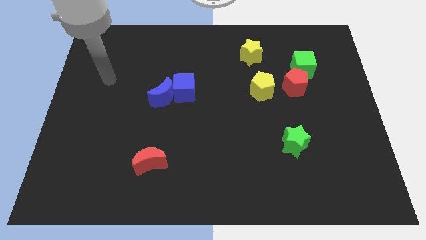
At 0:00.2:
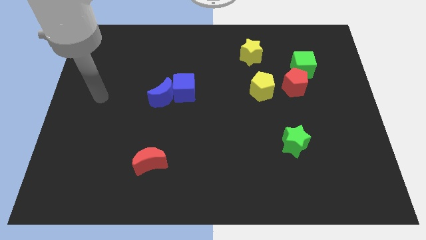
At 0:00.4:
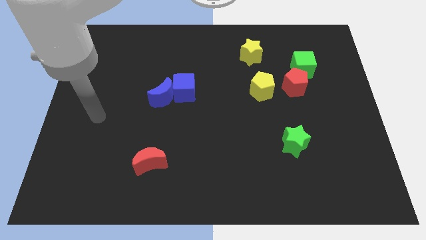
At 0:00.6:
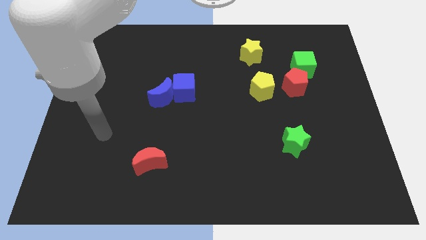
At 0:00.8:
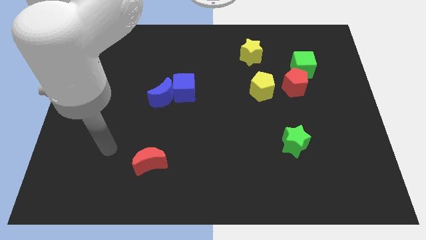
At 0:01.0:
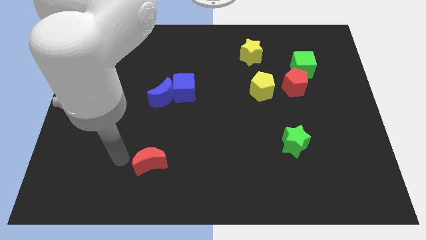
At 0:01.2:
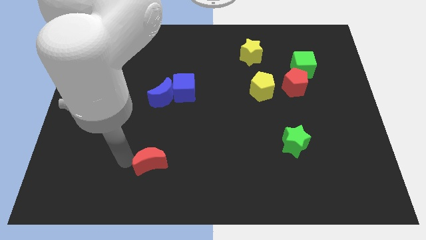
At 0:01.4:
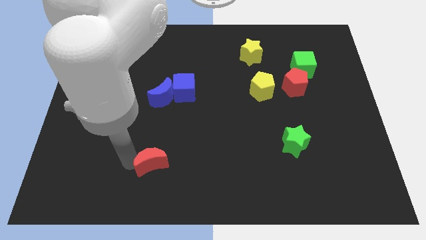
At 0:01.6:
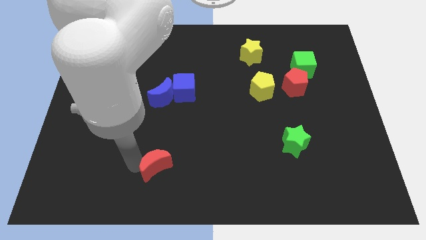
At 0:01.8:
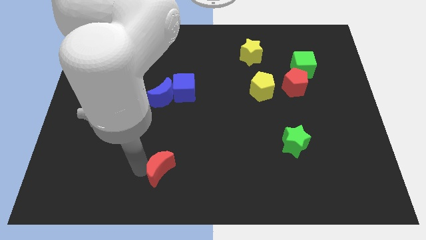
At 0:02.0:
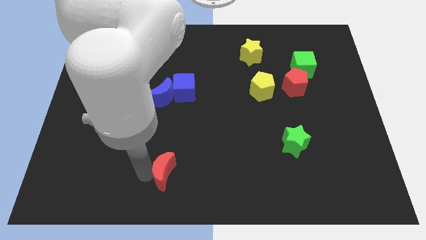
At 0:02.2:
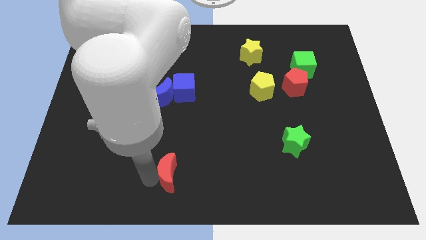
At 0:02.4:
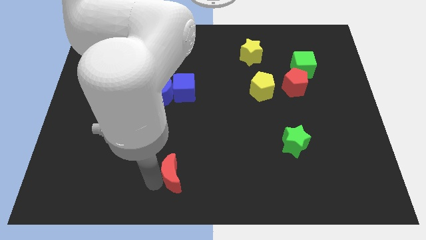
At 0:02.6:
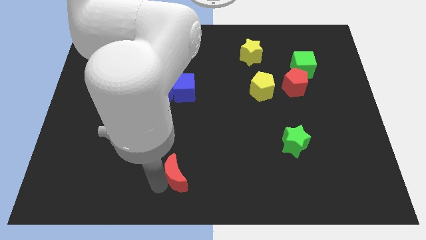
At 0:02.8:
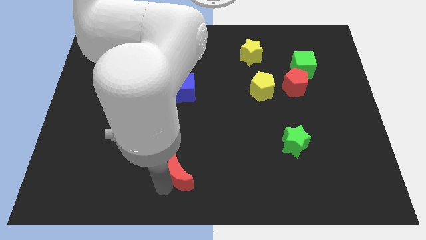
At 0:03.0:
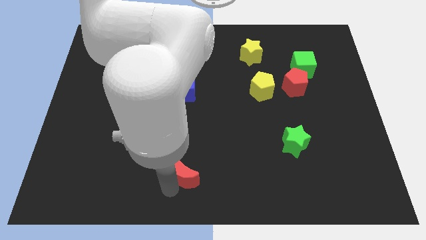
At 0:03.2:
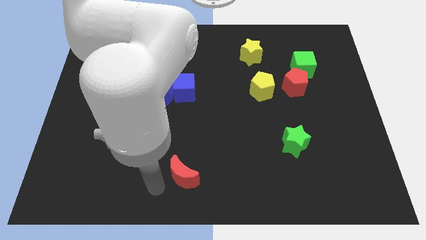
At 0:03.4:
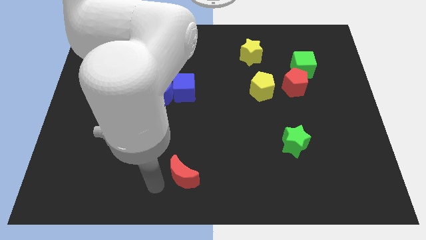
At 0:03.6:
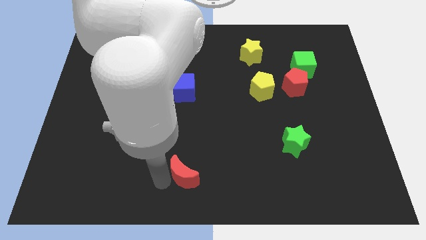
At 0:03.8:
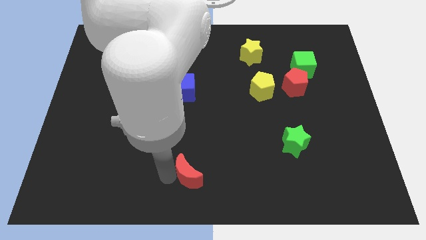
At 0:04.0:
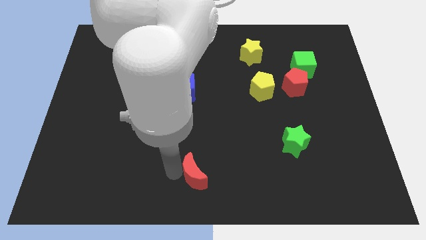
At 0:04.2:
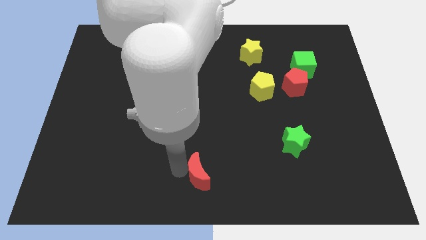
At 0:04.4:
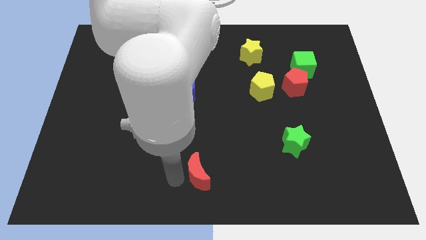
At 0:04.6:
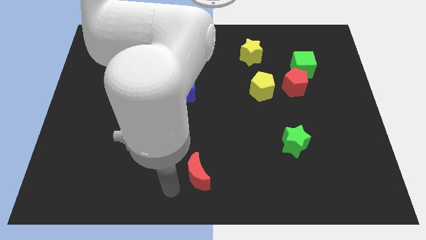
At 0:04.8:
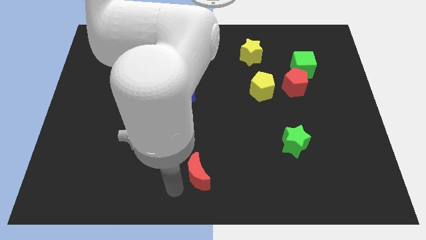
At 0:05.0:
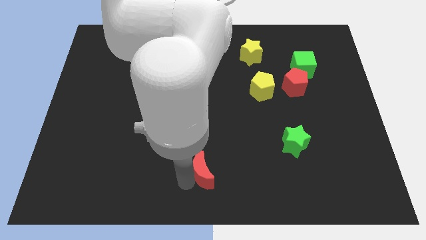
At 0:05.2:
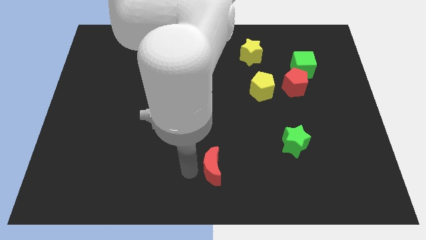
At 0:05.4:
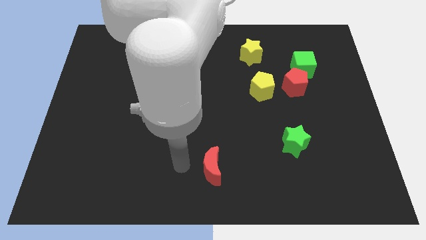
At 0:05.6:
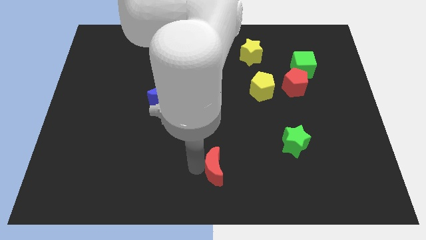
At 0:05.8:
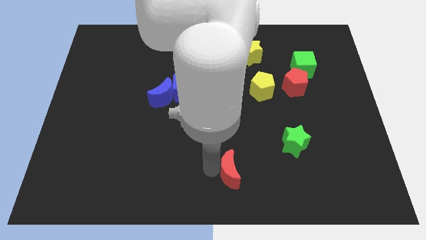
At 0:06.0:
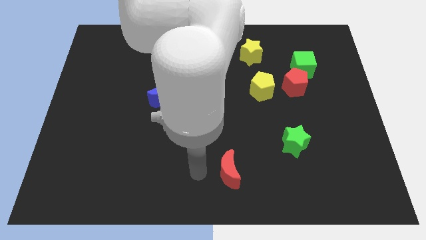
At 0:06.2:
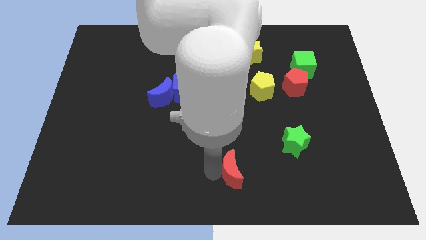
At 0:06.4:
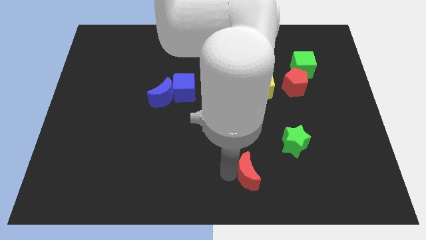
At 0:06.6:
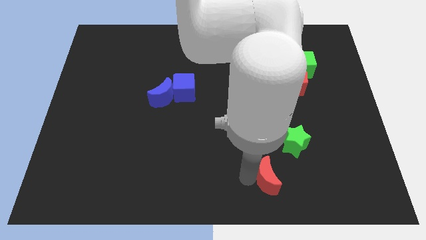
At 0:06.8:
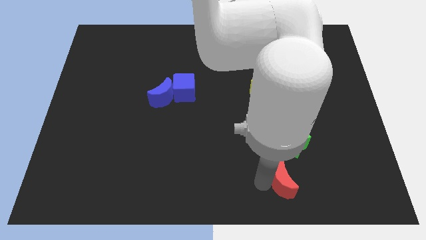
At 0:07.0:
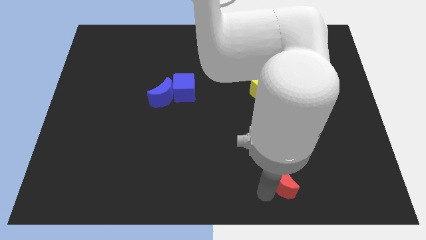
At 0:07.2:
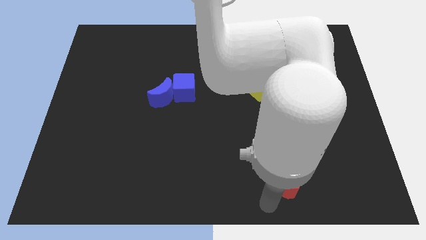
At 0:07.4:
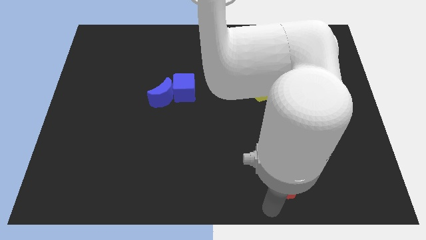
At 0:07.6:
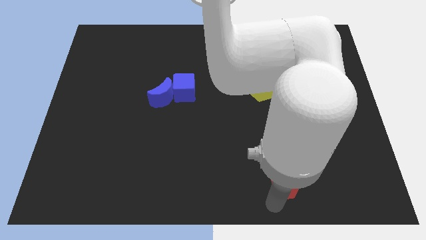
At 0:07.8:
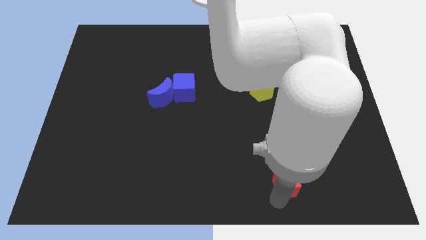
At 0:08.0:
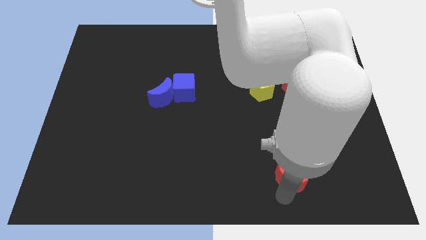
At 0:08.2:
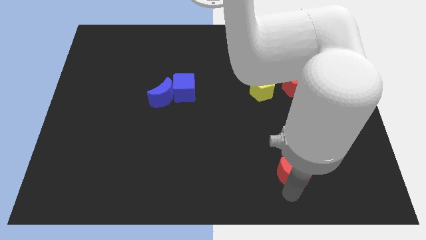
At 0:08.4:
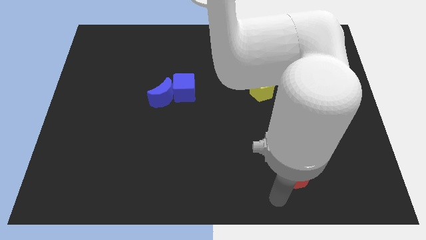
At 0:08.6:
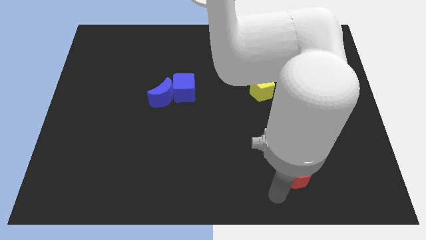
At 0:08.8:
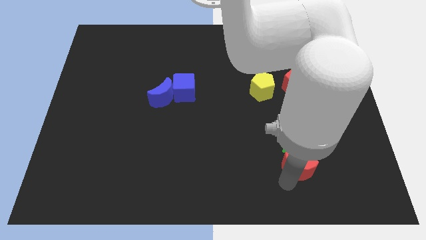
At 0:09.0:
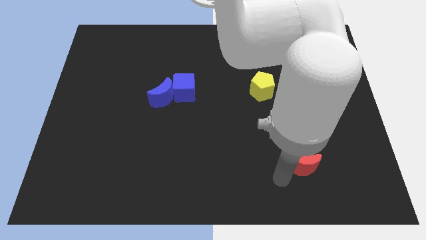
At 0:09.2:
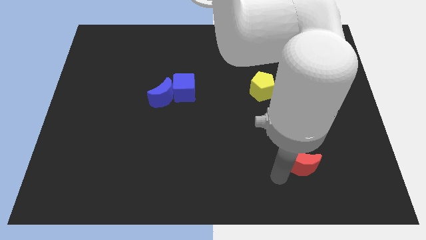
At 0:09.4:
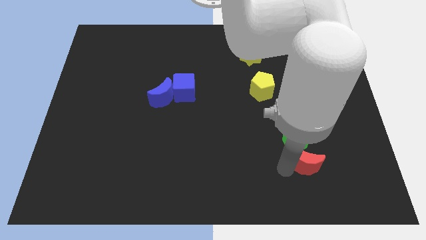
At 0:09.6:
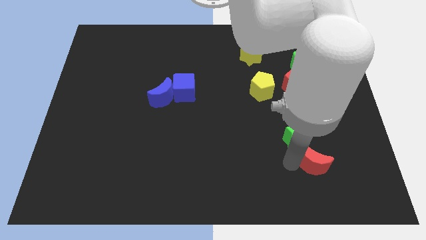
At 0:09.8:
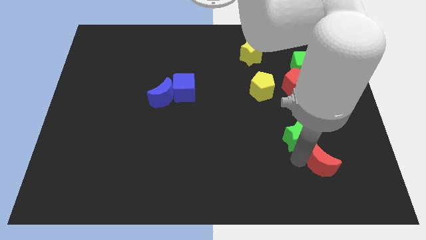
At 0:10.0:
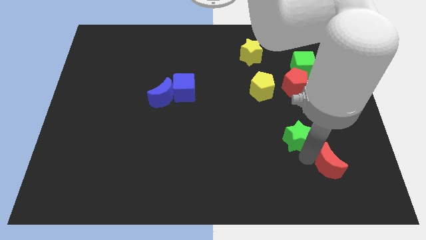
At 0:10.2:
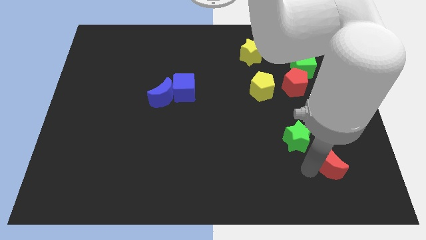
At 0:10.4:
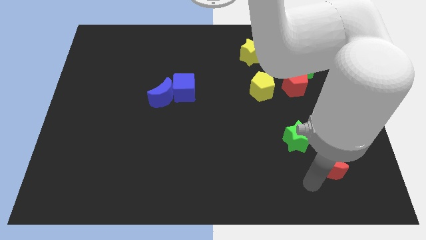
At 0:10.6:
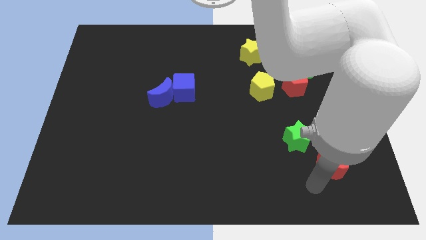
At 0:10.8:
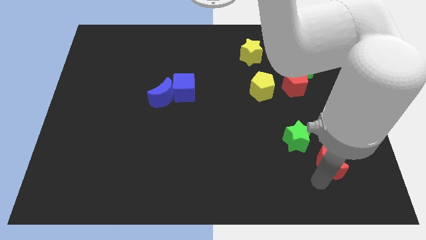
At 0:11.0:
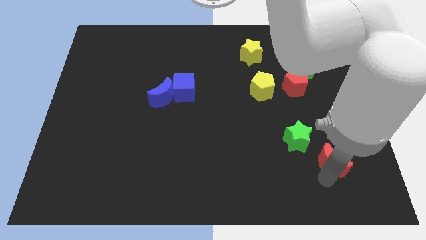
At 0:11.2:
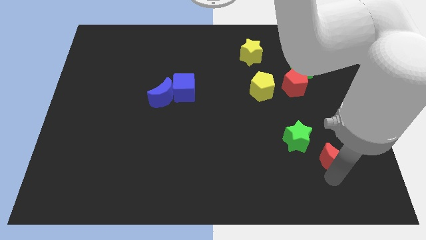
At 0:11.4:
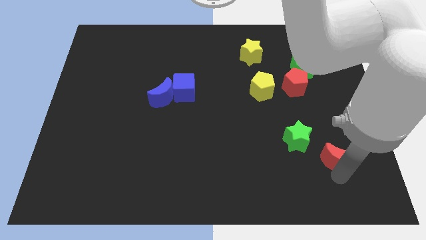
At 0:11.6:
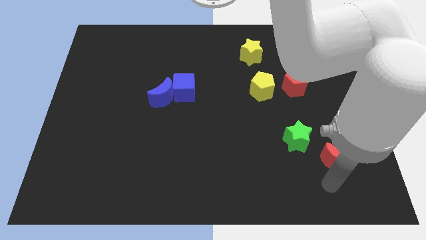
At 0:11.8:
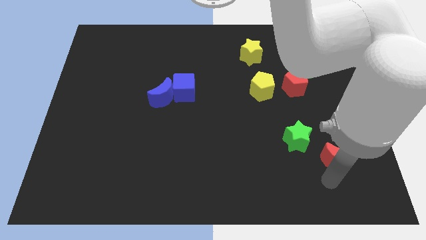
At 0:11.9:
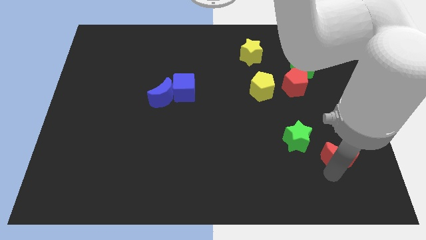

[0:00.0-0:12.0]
push the red moon just right of the green star

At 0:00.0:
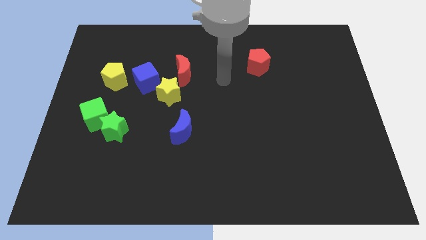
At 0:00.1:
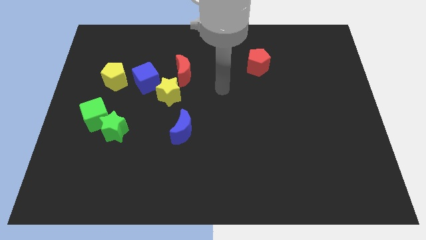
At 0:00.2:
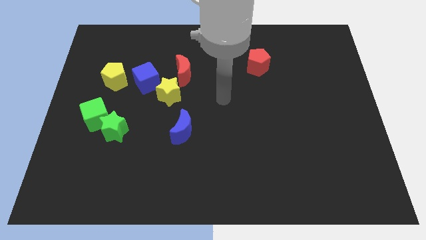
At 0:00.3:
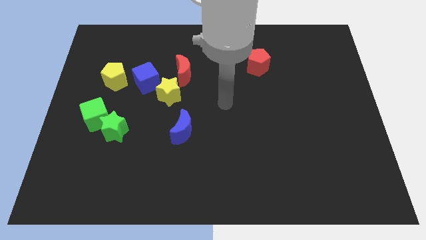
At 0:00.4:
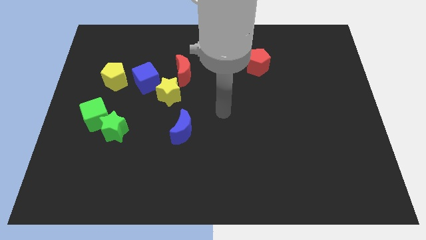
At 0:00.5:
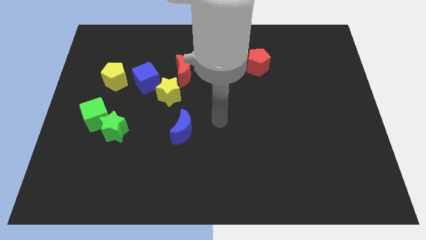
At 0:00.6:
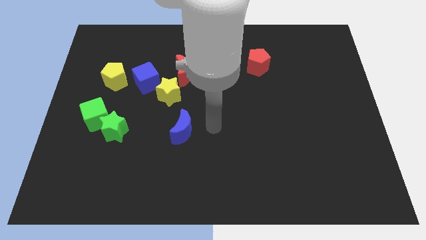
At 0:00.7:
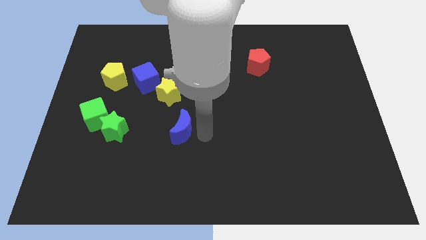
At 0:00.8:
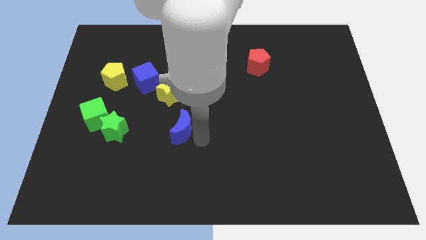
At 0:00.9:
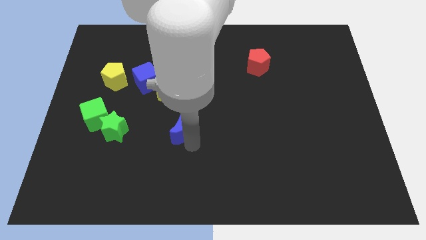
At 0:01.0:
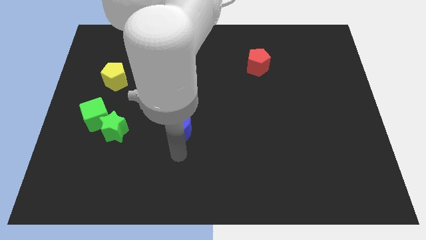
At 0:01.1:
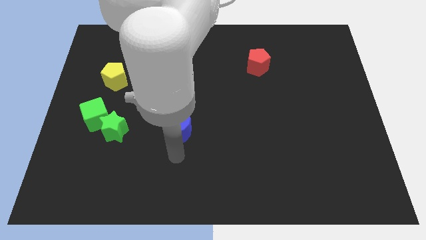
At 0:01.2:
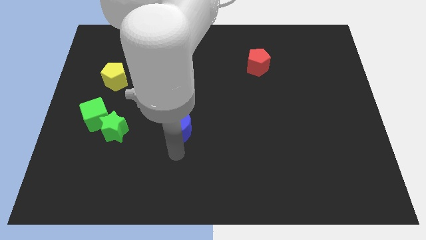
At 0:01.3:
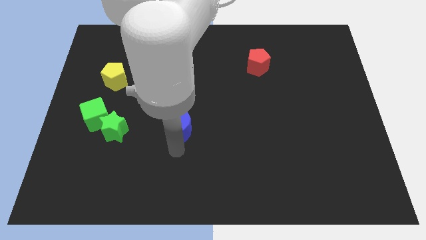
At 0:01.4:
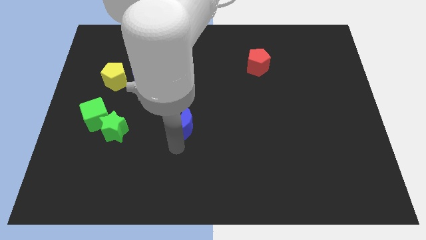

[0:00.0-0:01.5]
push the blue moon to the bottom right side of the yellow star
